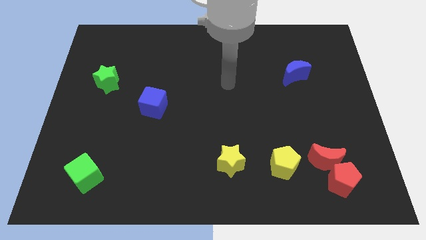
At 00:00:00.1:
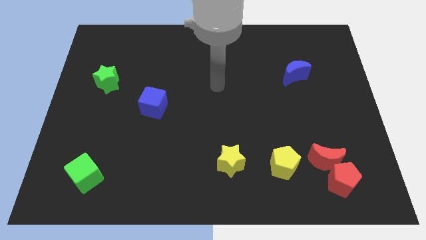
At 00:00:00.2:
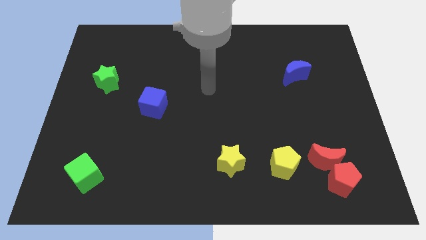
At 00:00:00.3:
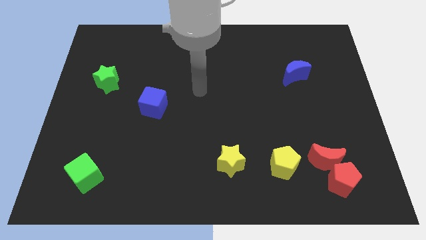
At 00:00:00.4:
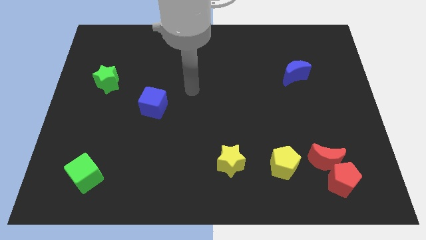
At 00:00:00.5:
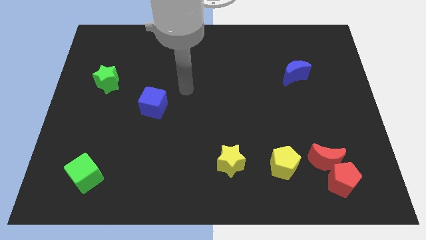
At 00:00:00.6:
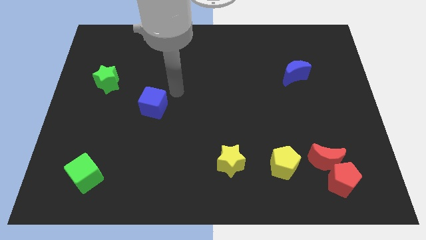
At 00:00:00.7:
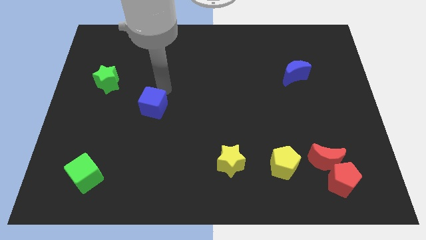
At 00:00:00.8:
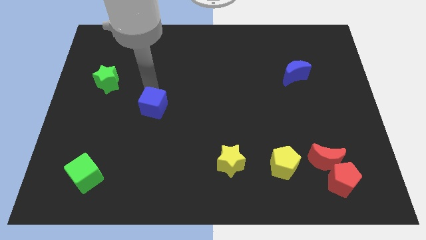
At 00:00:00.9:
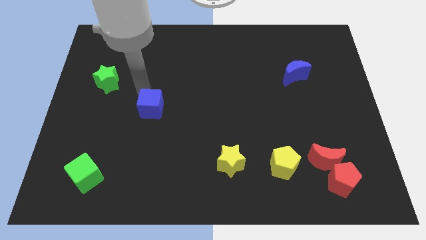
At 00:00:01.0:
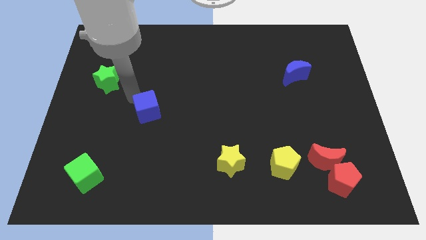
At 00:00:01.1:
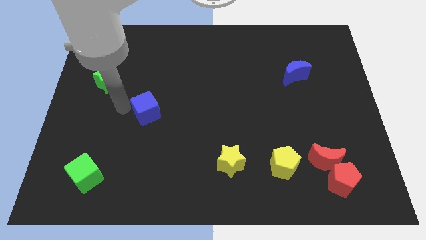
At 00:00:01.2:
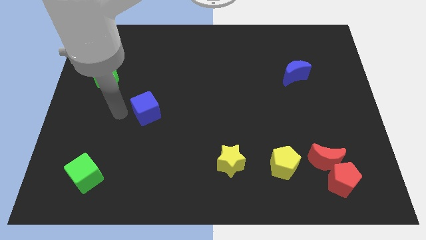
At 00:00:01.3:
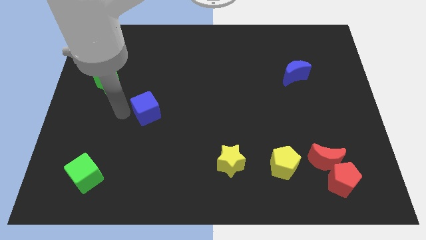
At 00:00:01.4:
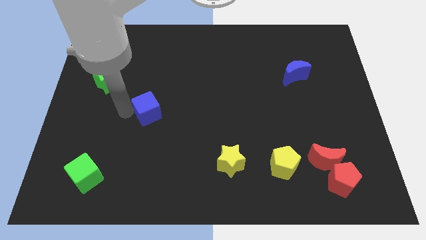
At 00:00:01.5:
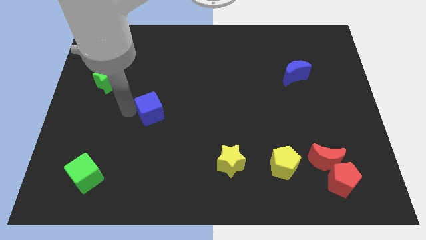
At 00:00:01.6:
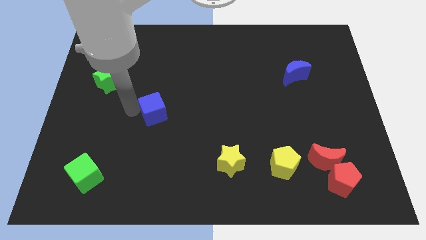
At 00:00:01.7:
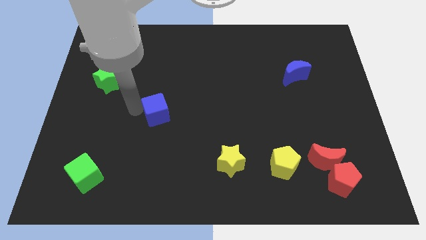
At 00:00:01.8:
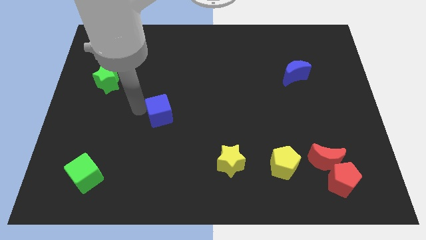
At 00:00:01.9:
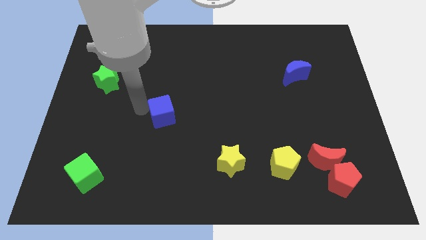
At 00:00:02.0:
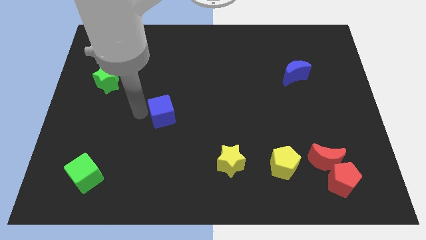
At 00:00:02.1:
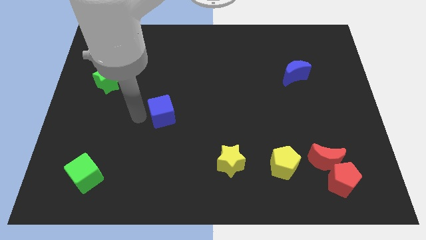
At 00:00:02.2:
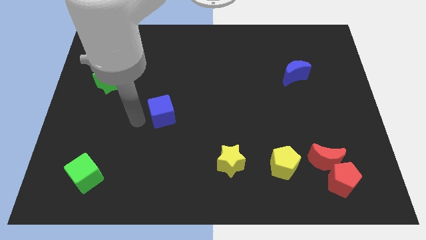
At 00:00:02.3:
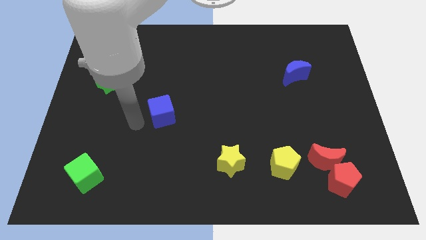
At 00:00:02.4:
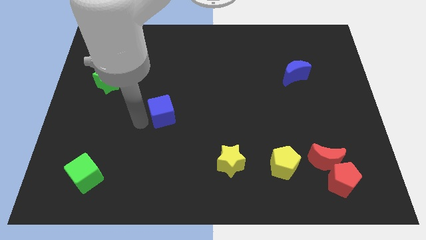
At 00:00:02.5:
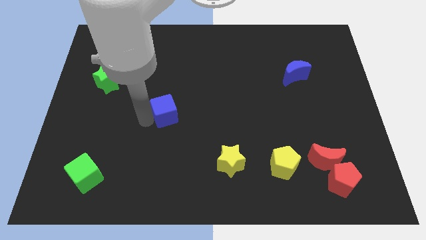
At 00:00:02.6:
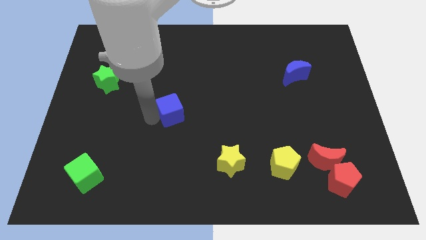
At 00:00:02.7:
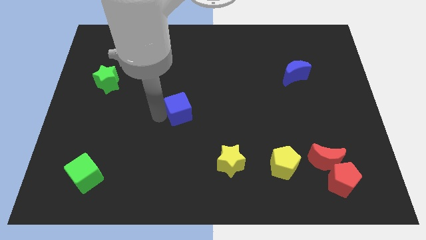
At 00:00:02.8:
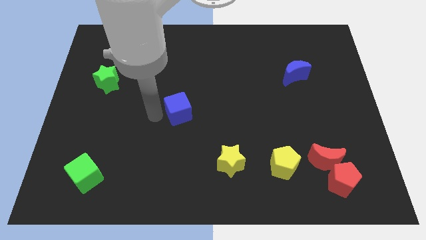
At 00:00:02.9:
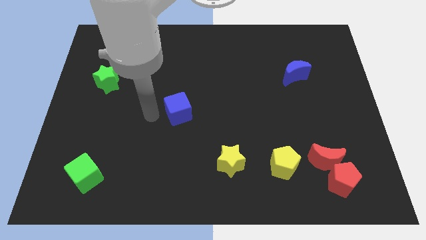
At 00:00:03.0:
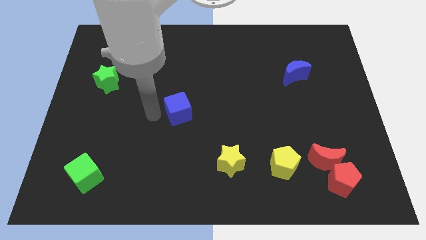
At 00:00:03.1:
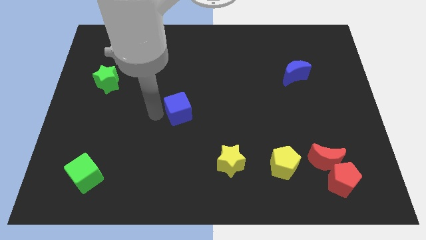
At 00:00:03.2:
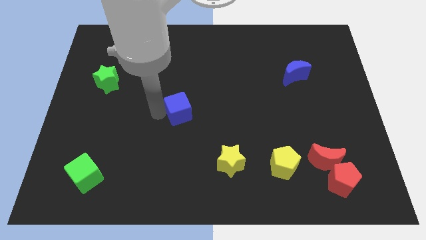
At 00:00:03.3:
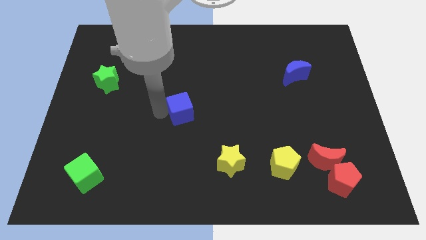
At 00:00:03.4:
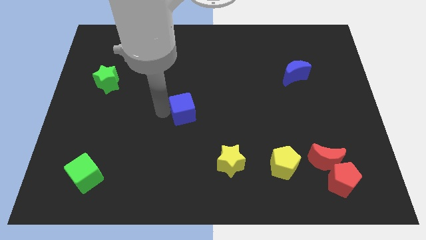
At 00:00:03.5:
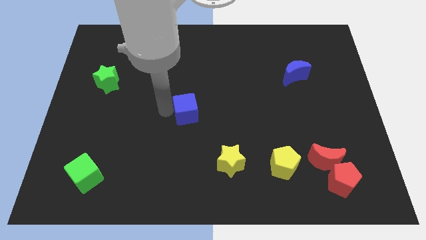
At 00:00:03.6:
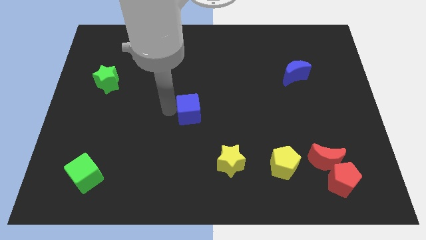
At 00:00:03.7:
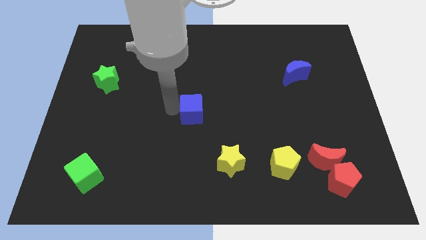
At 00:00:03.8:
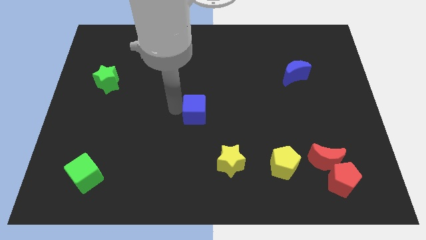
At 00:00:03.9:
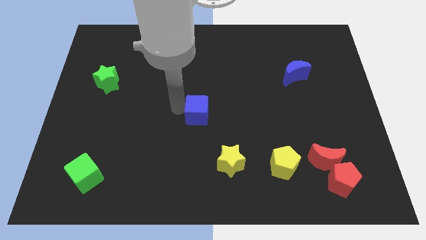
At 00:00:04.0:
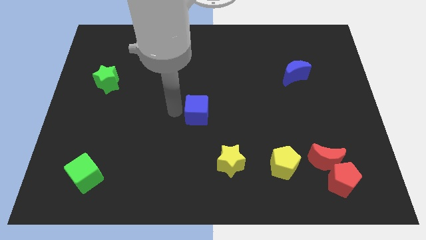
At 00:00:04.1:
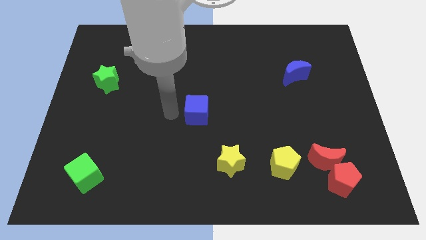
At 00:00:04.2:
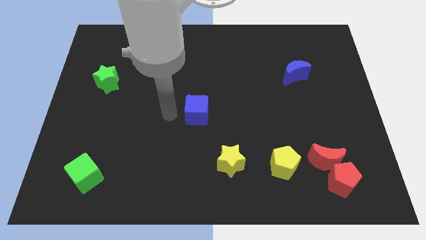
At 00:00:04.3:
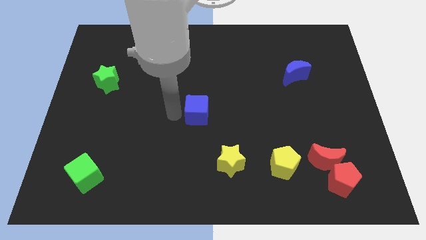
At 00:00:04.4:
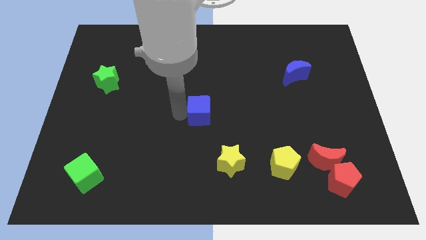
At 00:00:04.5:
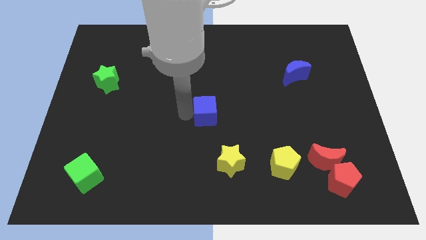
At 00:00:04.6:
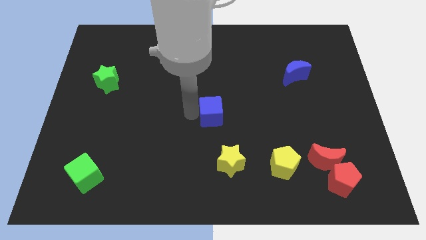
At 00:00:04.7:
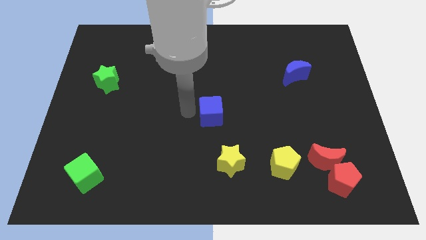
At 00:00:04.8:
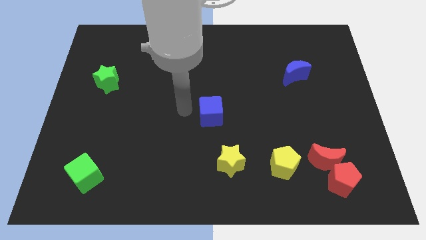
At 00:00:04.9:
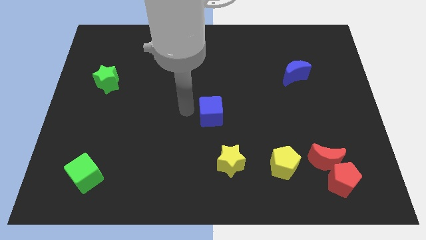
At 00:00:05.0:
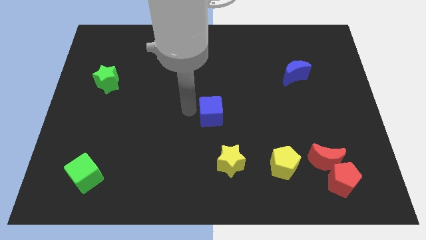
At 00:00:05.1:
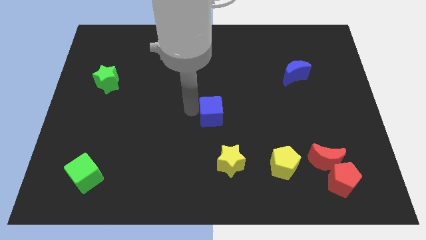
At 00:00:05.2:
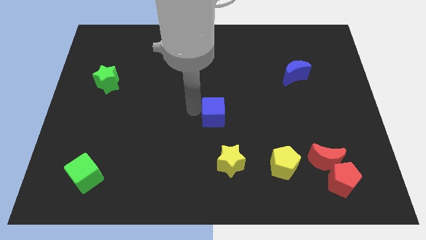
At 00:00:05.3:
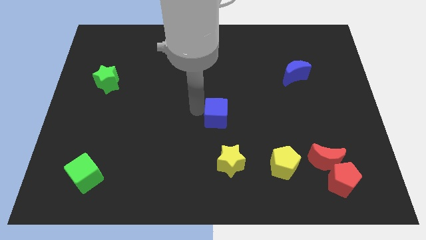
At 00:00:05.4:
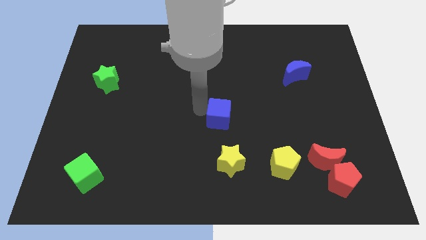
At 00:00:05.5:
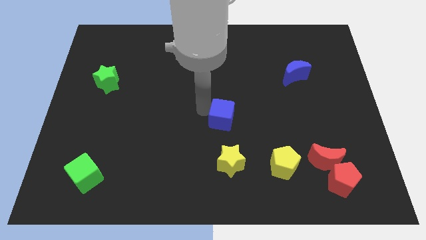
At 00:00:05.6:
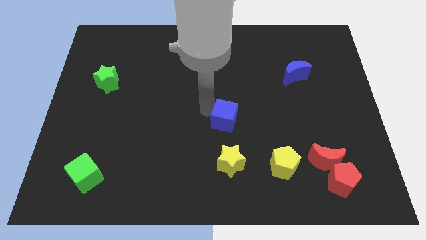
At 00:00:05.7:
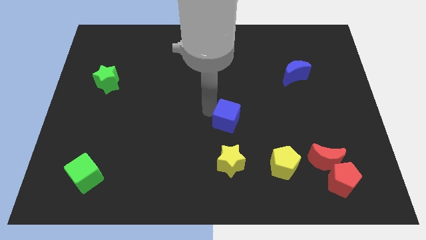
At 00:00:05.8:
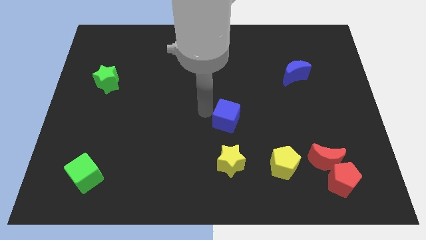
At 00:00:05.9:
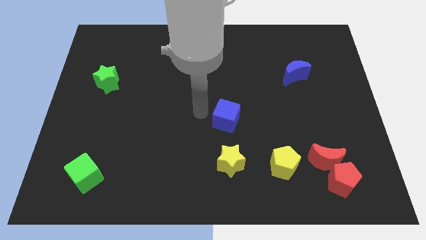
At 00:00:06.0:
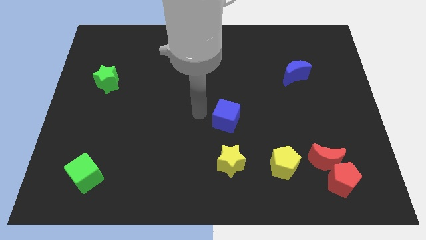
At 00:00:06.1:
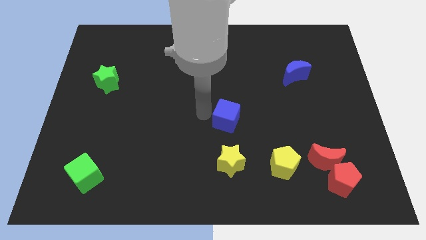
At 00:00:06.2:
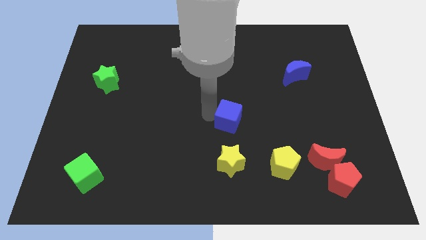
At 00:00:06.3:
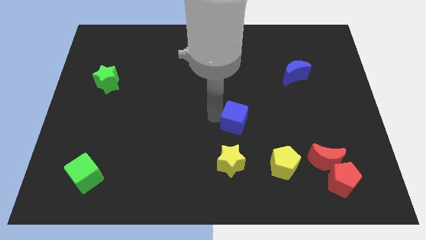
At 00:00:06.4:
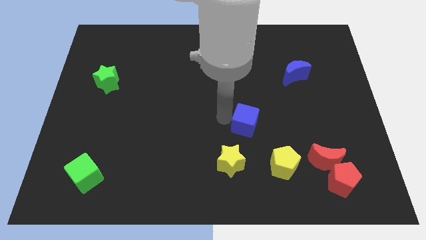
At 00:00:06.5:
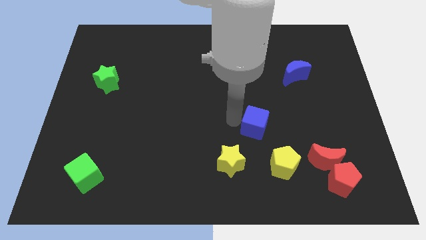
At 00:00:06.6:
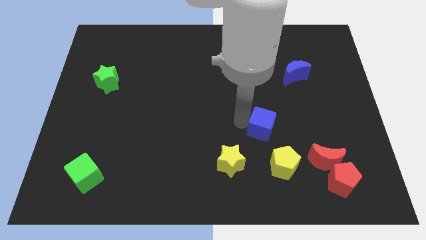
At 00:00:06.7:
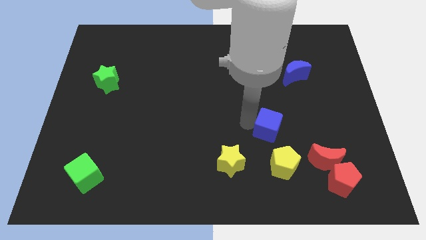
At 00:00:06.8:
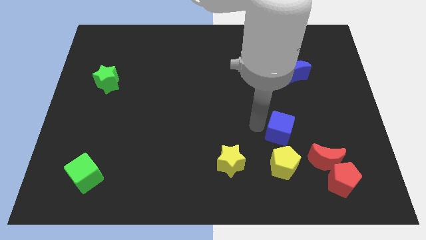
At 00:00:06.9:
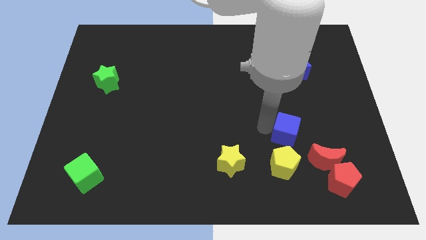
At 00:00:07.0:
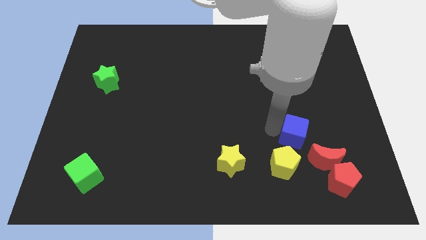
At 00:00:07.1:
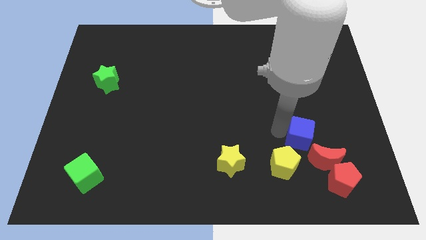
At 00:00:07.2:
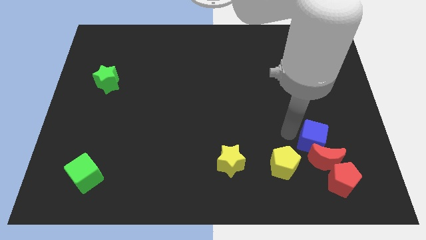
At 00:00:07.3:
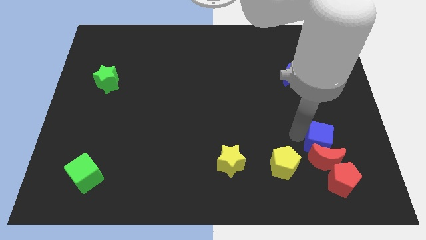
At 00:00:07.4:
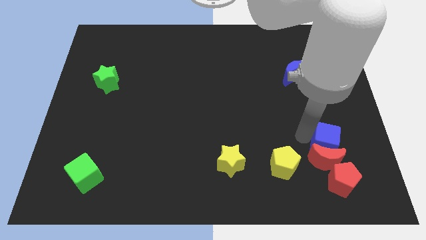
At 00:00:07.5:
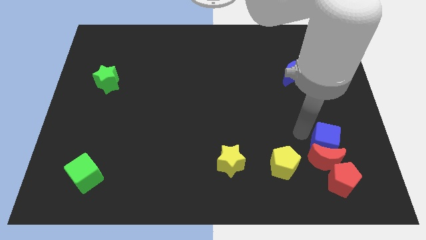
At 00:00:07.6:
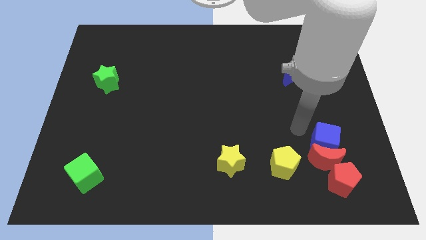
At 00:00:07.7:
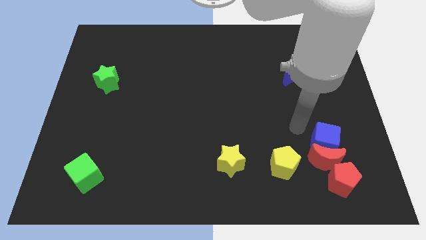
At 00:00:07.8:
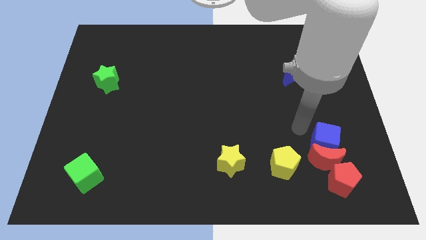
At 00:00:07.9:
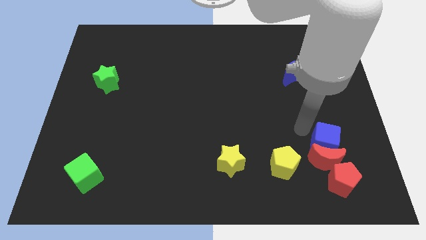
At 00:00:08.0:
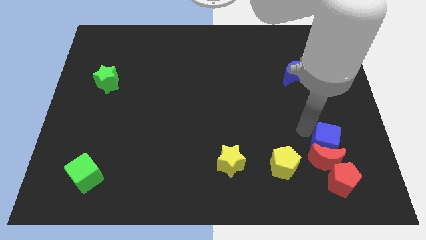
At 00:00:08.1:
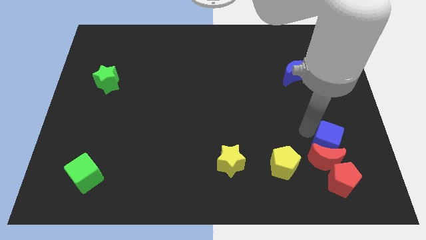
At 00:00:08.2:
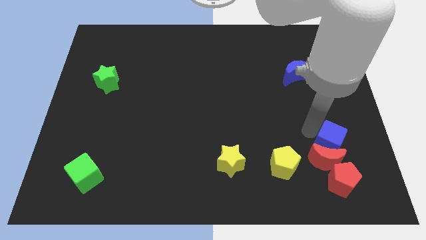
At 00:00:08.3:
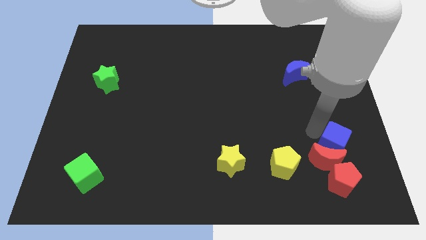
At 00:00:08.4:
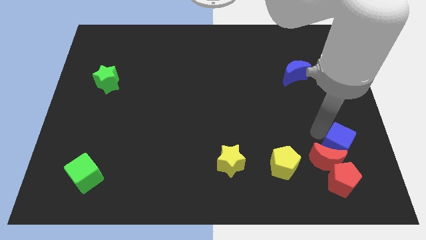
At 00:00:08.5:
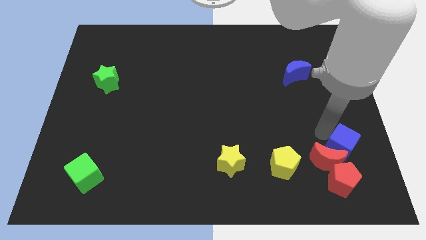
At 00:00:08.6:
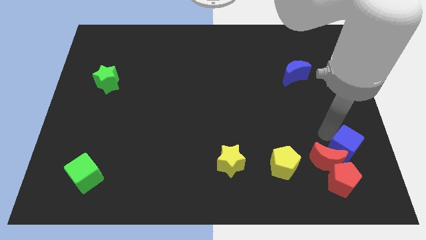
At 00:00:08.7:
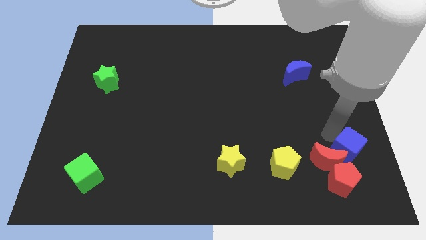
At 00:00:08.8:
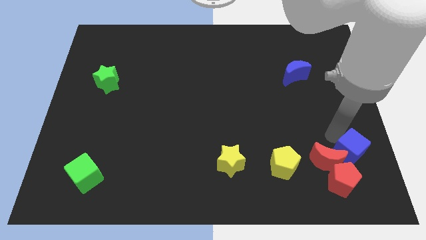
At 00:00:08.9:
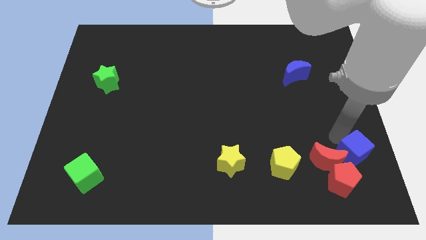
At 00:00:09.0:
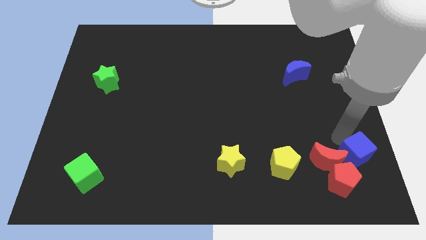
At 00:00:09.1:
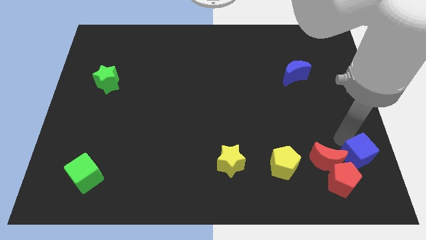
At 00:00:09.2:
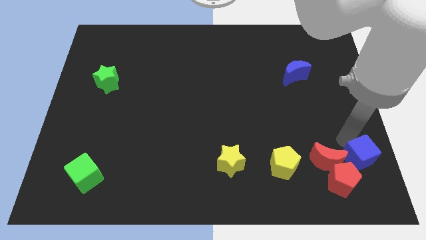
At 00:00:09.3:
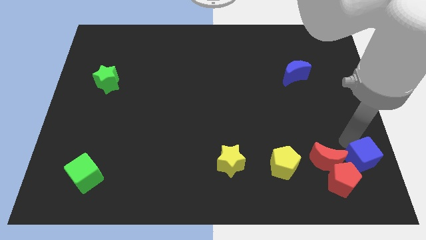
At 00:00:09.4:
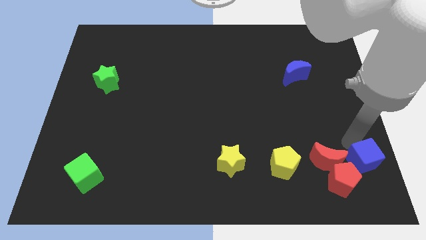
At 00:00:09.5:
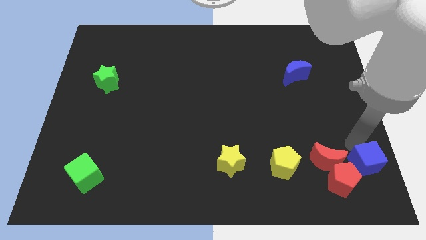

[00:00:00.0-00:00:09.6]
put the blue cube to the bottom right of the board
